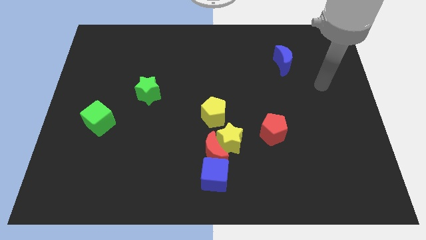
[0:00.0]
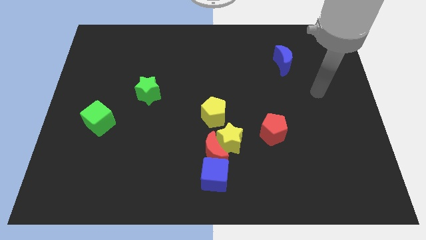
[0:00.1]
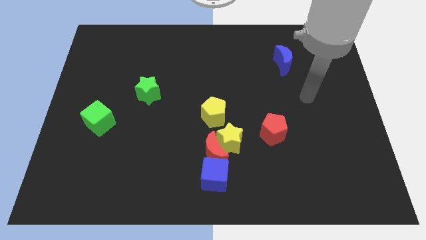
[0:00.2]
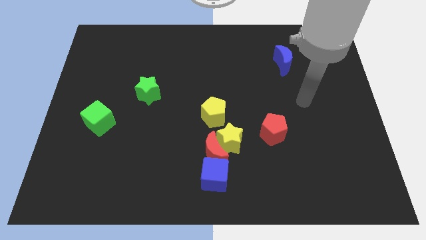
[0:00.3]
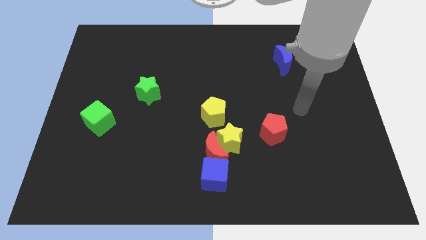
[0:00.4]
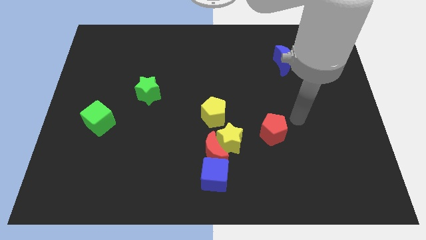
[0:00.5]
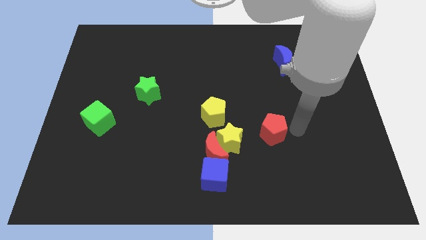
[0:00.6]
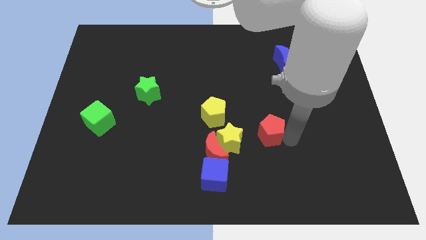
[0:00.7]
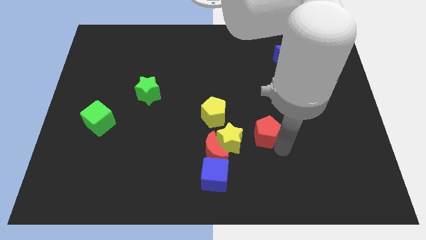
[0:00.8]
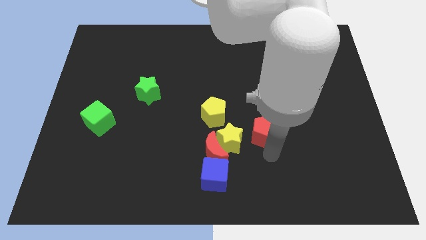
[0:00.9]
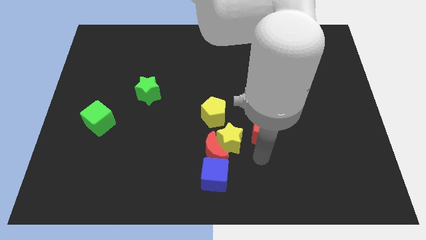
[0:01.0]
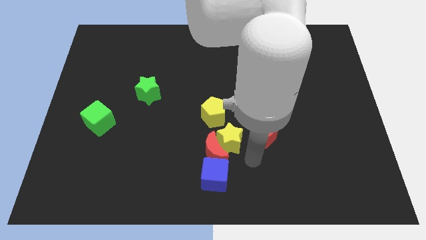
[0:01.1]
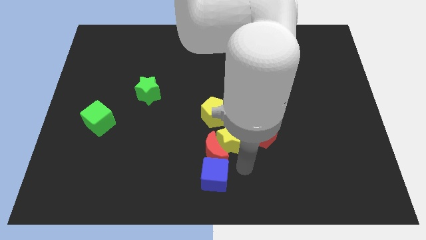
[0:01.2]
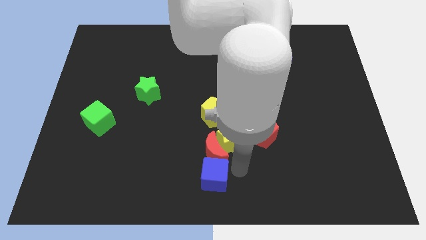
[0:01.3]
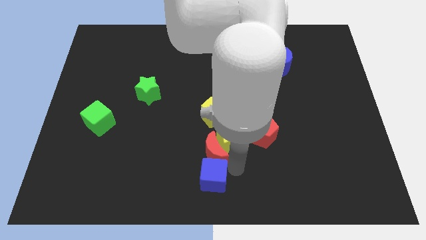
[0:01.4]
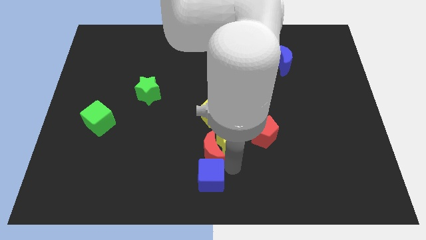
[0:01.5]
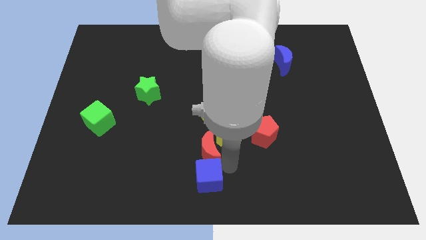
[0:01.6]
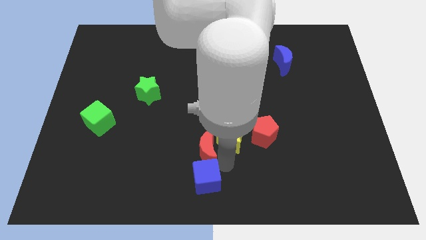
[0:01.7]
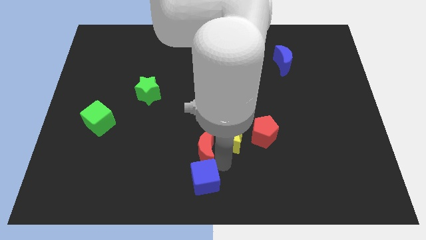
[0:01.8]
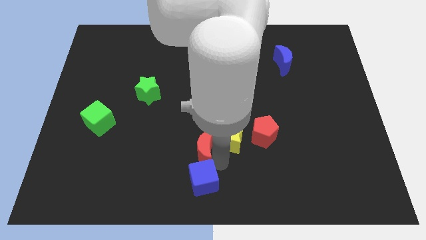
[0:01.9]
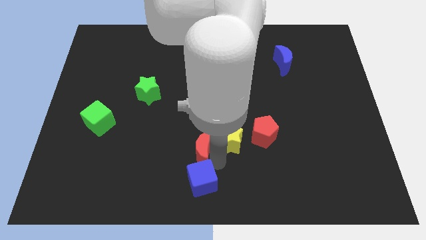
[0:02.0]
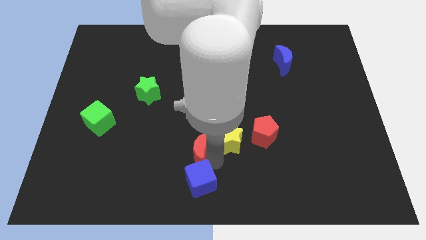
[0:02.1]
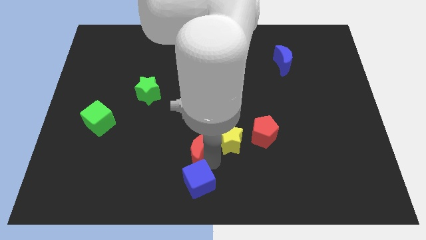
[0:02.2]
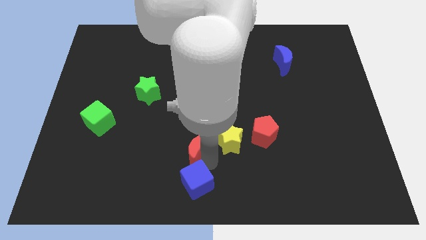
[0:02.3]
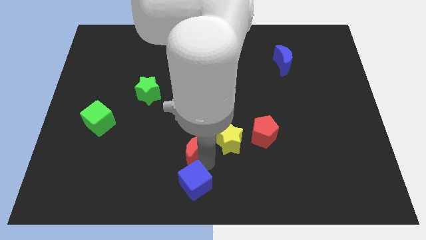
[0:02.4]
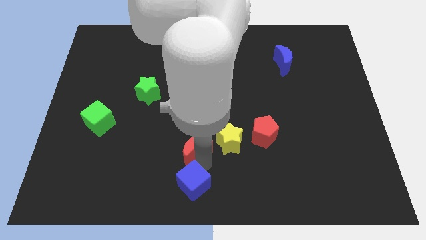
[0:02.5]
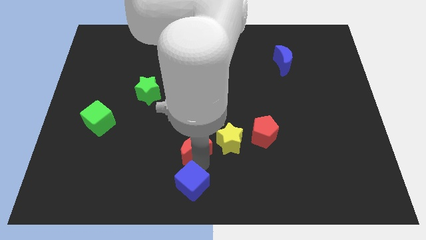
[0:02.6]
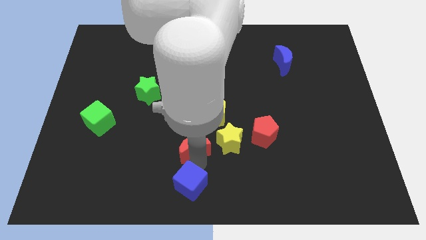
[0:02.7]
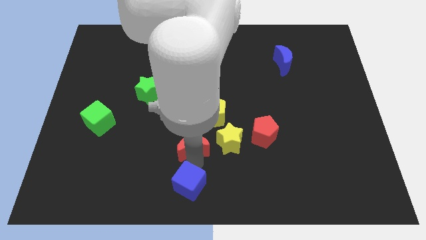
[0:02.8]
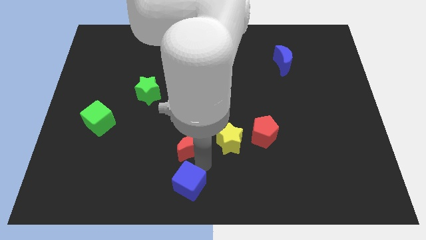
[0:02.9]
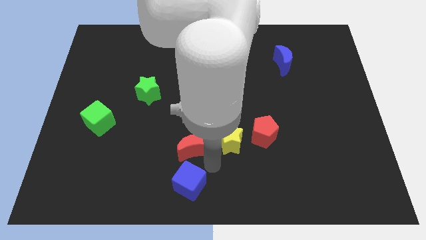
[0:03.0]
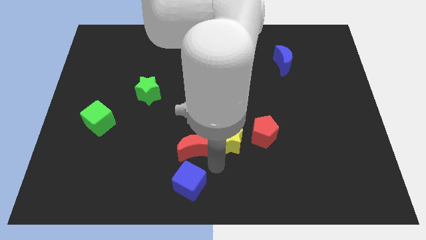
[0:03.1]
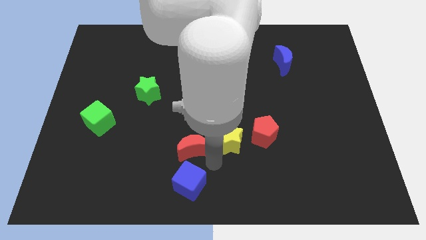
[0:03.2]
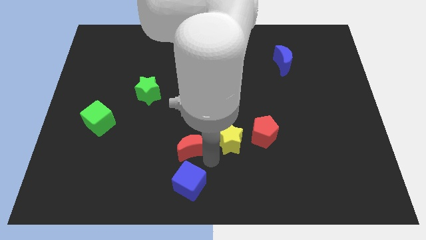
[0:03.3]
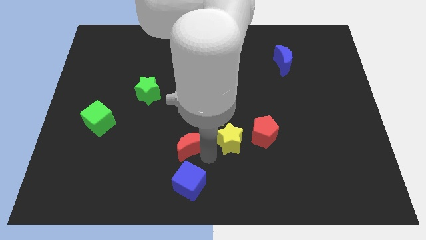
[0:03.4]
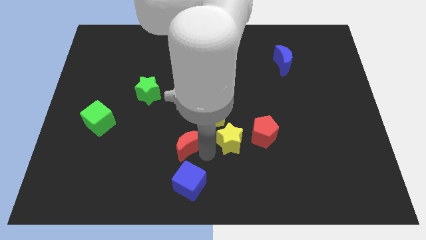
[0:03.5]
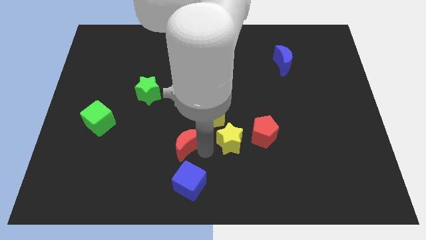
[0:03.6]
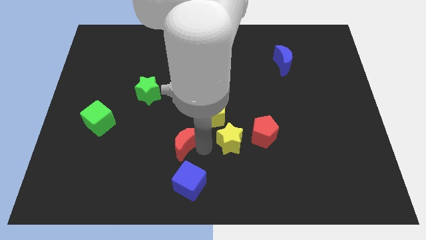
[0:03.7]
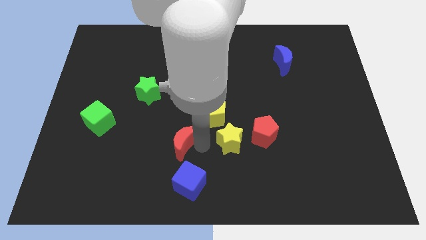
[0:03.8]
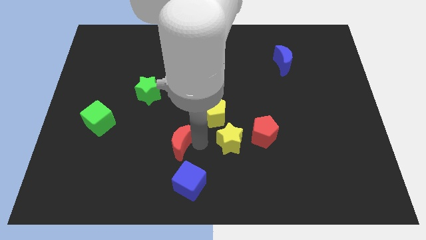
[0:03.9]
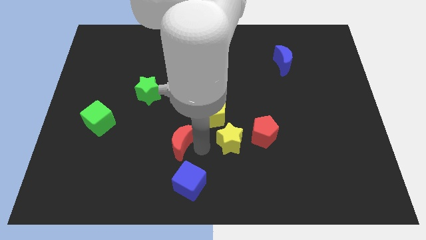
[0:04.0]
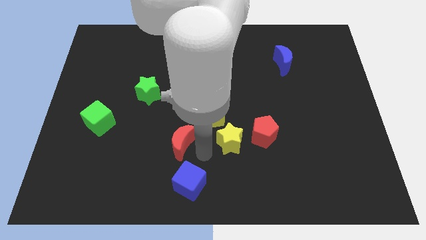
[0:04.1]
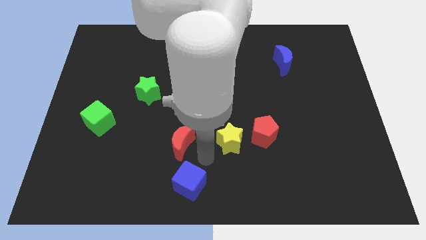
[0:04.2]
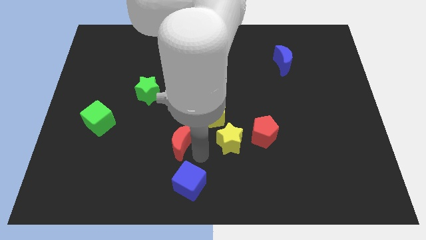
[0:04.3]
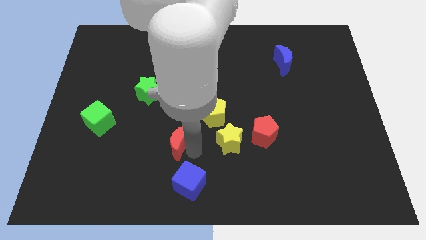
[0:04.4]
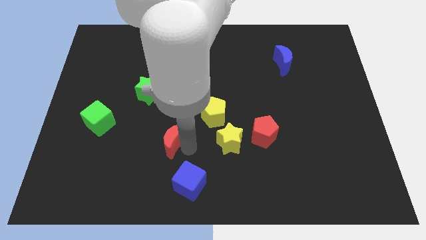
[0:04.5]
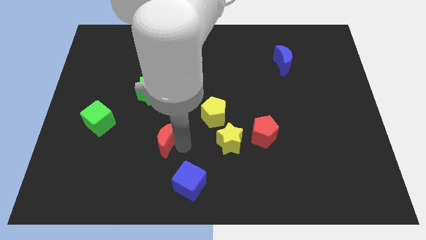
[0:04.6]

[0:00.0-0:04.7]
separate the red moon from the yellow star and blue cube

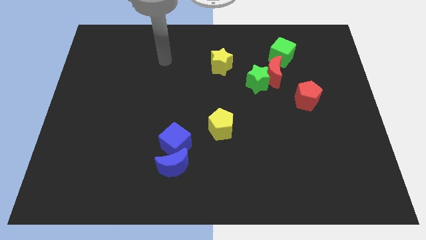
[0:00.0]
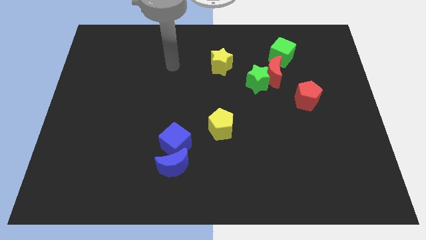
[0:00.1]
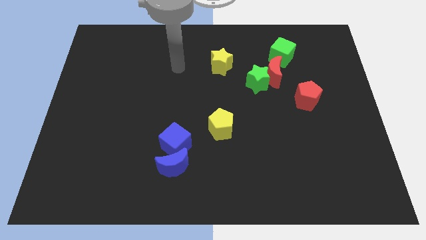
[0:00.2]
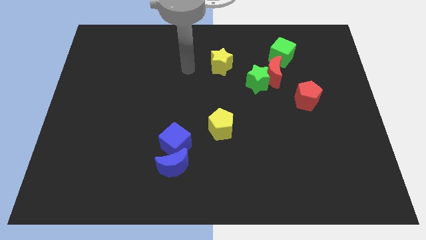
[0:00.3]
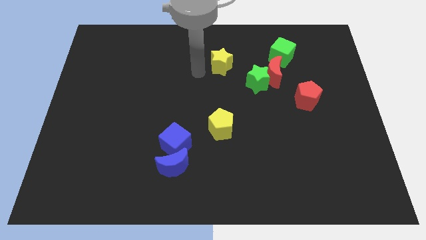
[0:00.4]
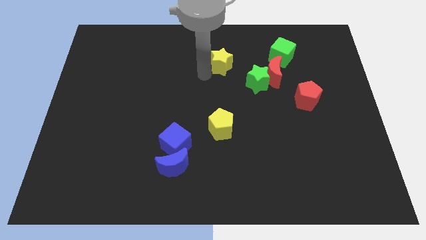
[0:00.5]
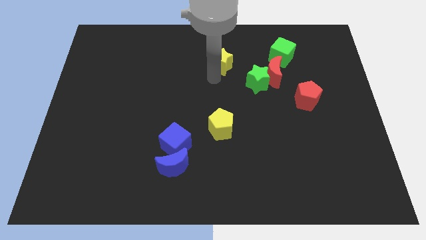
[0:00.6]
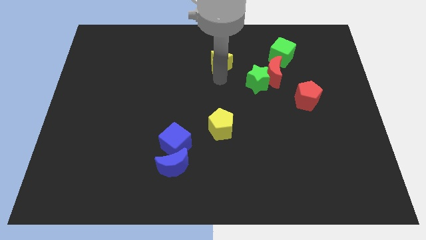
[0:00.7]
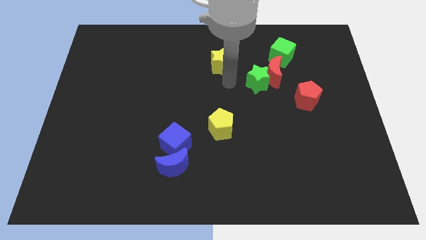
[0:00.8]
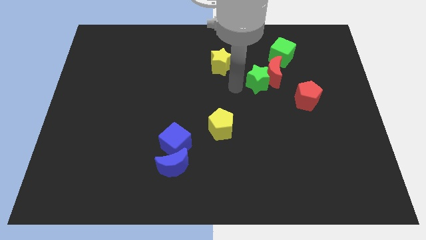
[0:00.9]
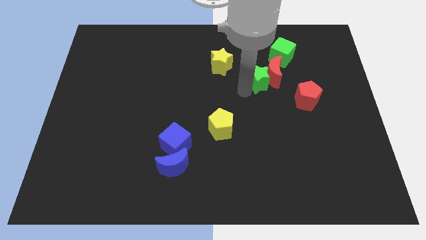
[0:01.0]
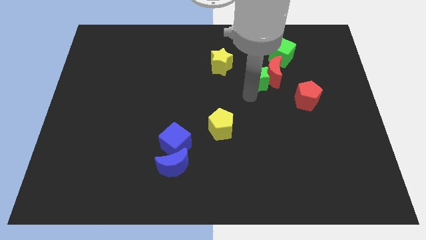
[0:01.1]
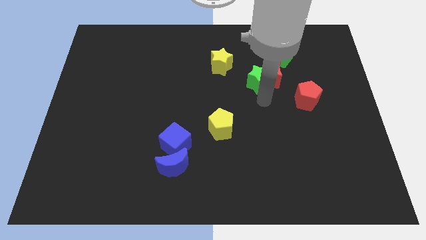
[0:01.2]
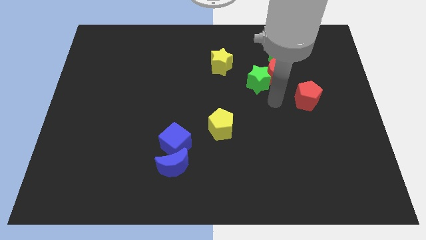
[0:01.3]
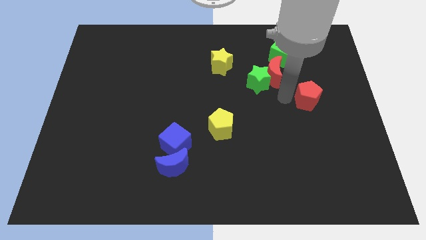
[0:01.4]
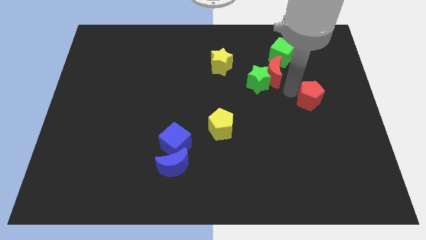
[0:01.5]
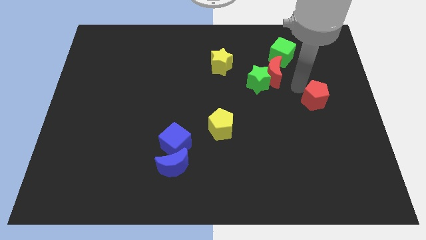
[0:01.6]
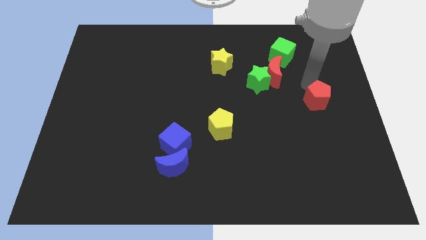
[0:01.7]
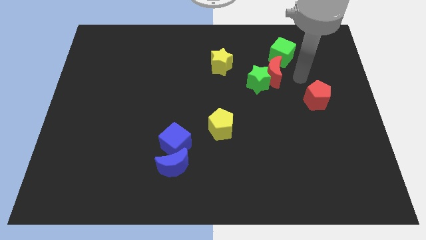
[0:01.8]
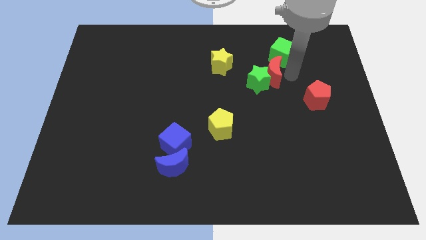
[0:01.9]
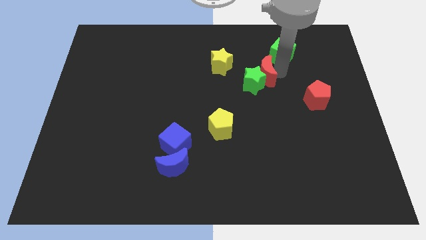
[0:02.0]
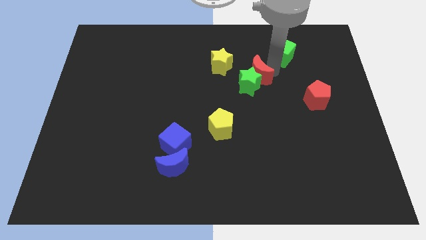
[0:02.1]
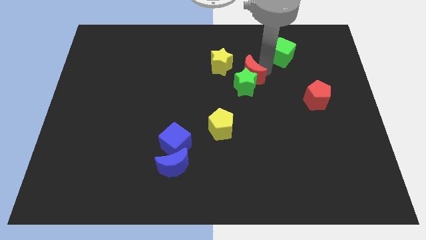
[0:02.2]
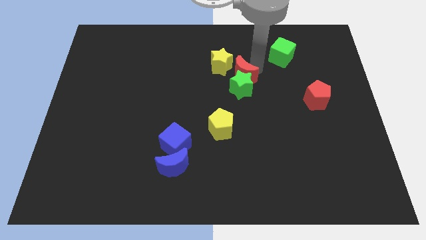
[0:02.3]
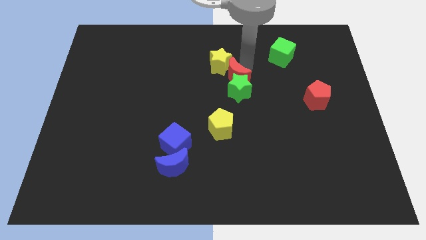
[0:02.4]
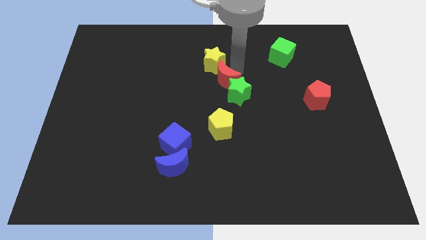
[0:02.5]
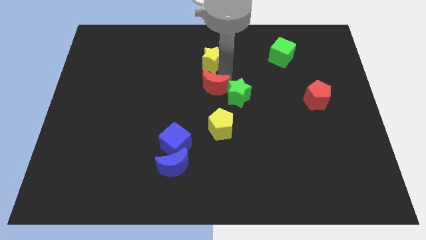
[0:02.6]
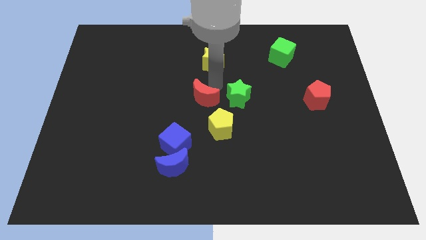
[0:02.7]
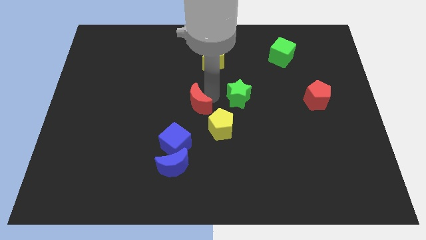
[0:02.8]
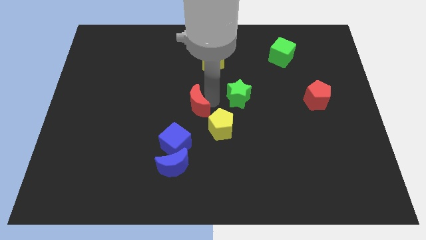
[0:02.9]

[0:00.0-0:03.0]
separate the green star from the red moon

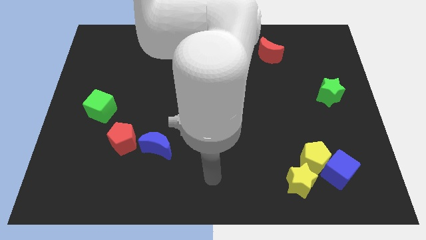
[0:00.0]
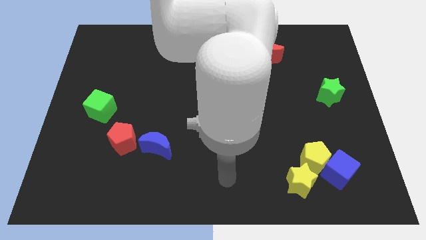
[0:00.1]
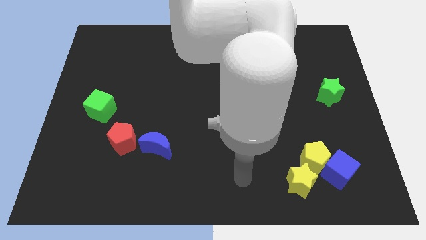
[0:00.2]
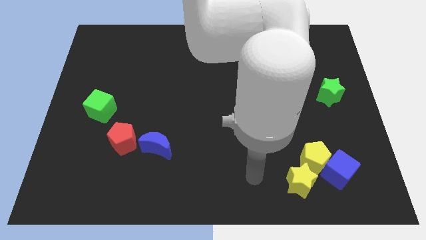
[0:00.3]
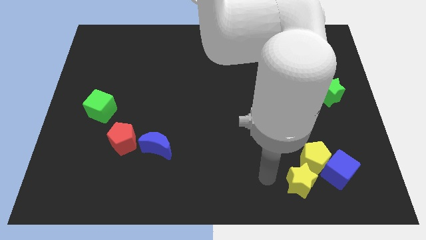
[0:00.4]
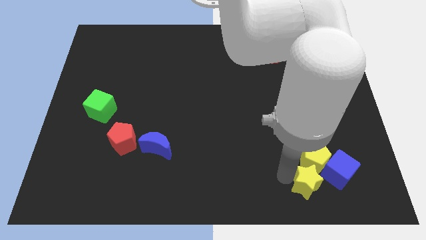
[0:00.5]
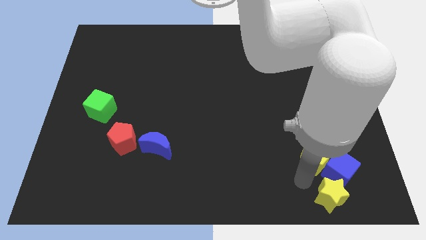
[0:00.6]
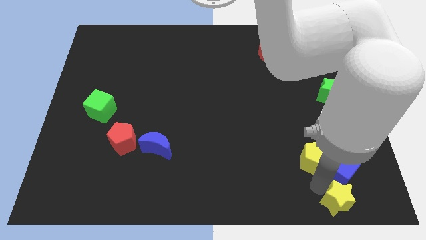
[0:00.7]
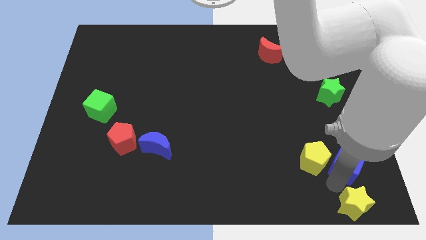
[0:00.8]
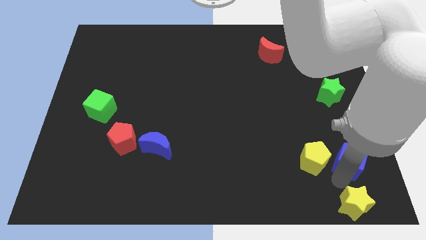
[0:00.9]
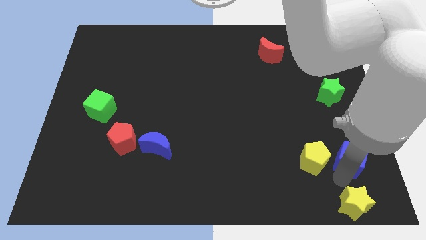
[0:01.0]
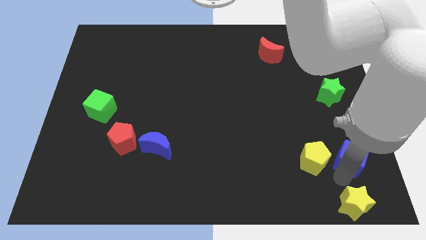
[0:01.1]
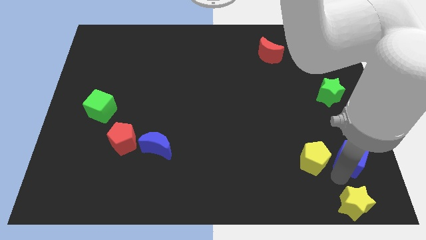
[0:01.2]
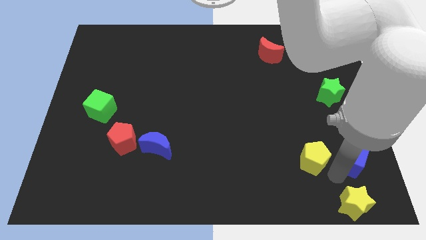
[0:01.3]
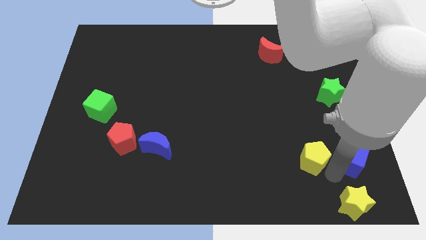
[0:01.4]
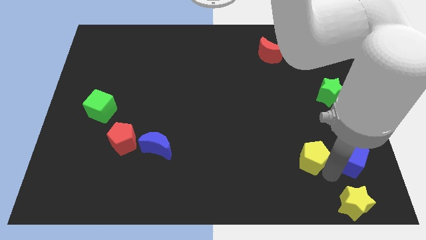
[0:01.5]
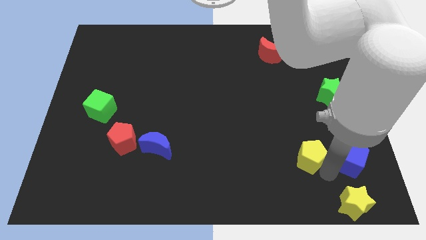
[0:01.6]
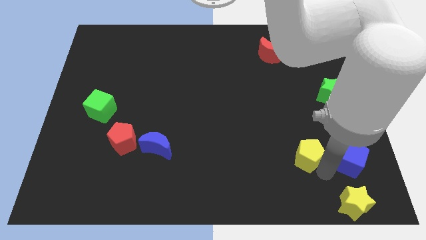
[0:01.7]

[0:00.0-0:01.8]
pull the yellow pentagon apart from the blue cube and yellow star
